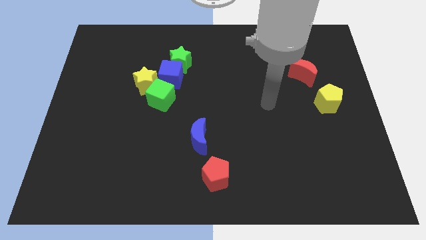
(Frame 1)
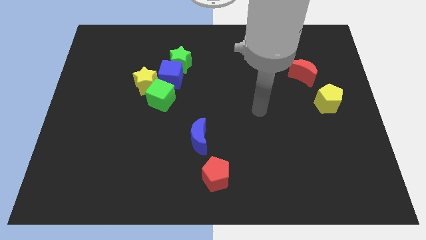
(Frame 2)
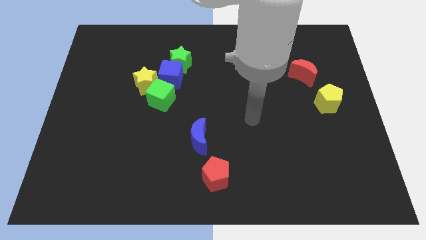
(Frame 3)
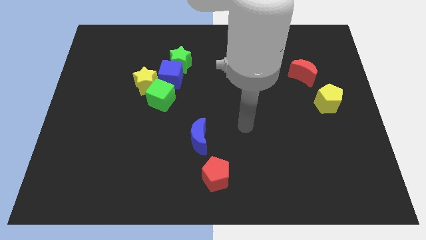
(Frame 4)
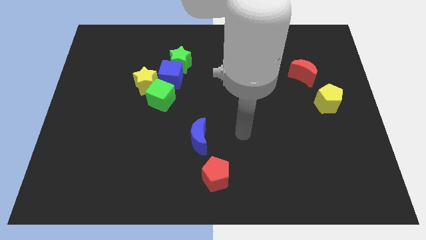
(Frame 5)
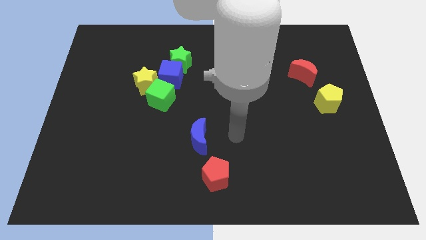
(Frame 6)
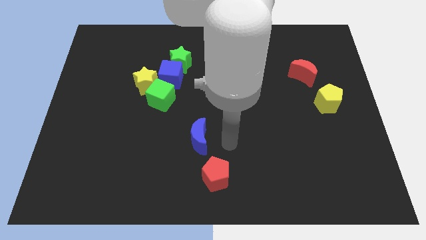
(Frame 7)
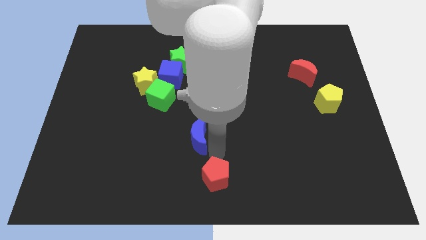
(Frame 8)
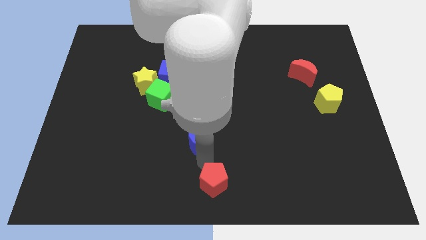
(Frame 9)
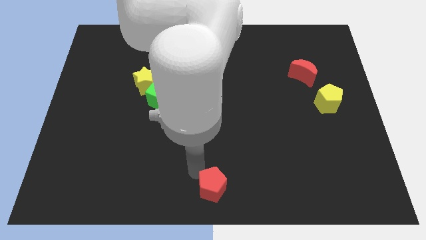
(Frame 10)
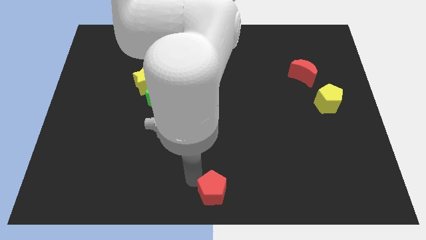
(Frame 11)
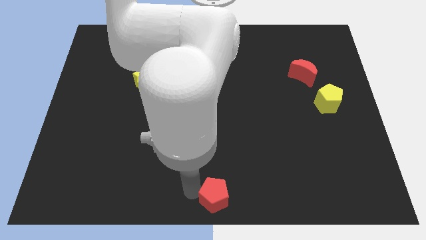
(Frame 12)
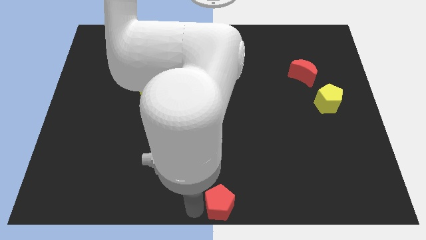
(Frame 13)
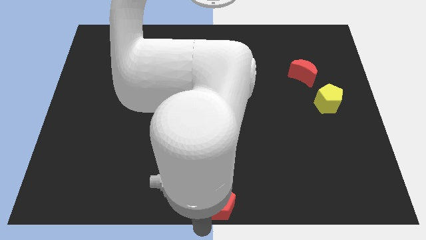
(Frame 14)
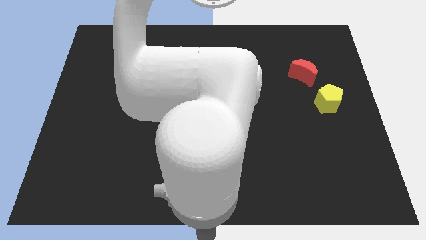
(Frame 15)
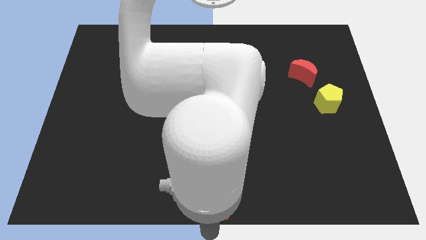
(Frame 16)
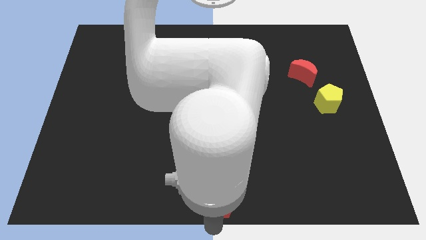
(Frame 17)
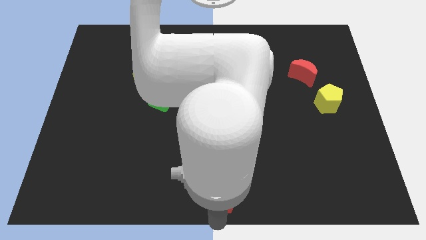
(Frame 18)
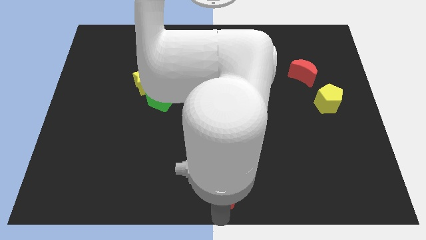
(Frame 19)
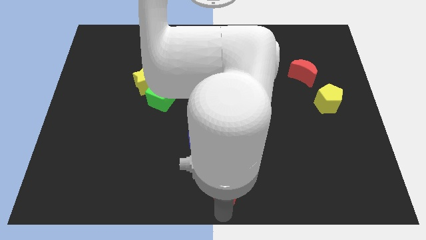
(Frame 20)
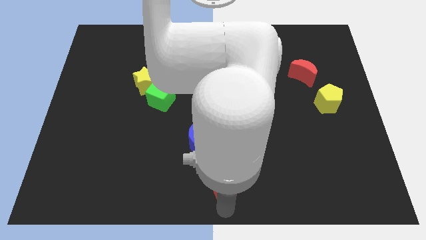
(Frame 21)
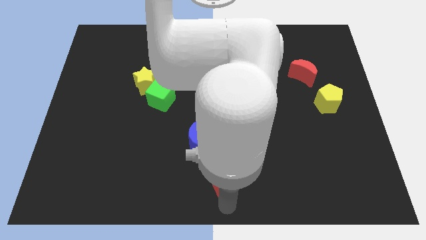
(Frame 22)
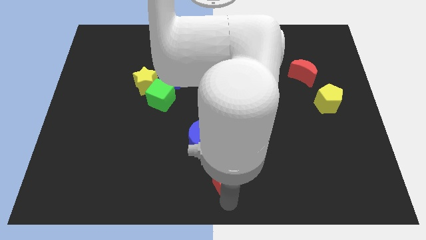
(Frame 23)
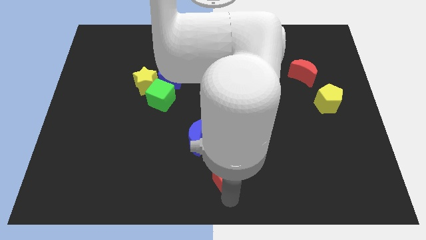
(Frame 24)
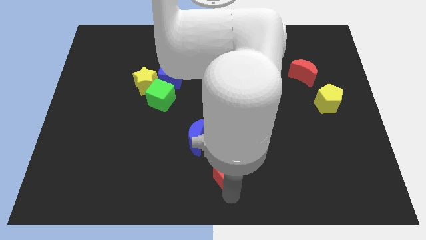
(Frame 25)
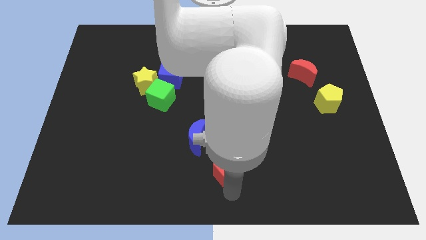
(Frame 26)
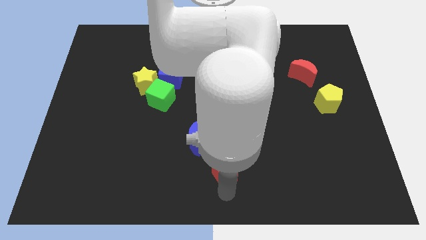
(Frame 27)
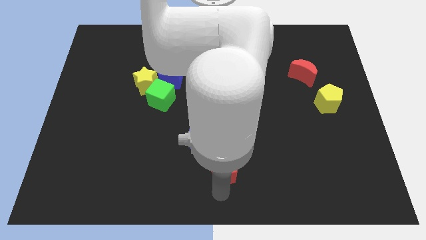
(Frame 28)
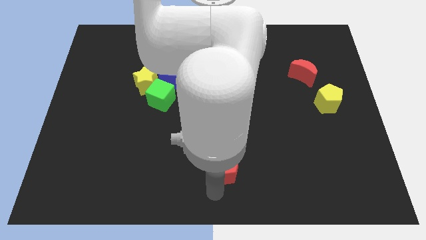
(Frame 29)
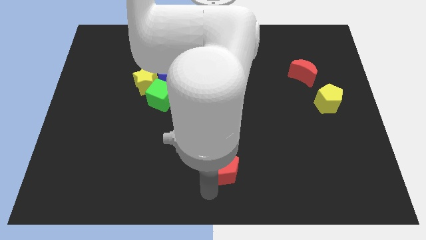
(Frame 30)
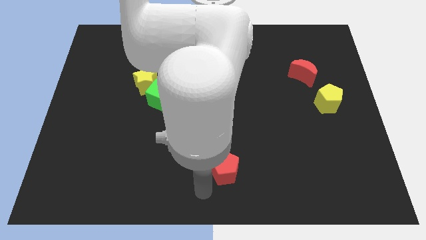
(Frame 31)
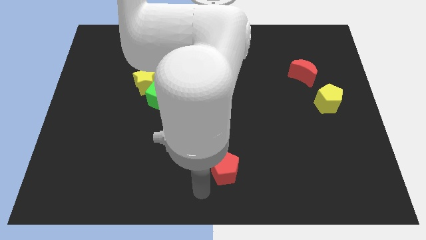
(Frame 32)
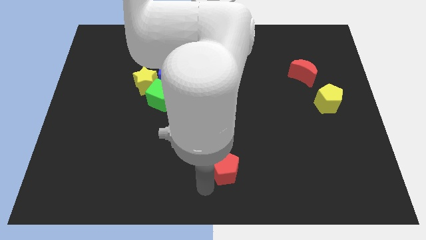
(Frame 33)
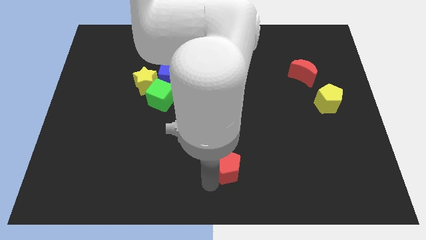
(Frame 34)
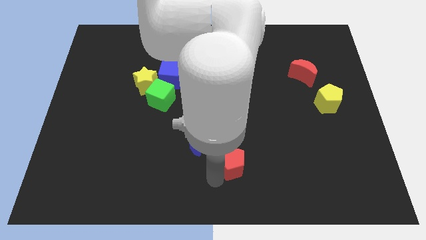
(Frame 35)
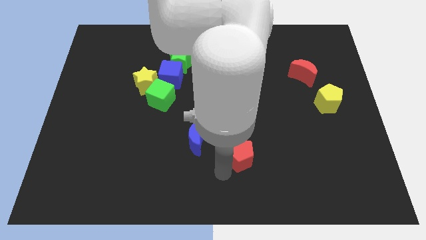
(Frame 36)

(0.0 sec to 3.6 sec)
slightly push the red pentagon up and to the right diagonally

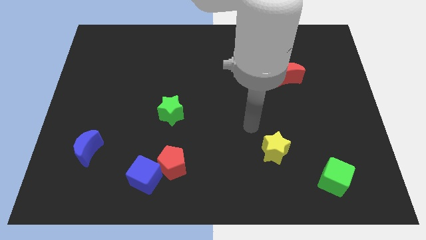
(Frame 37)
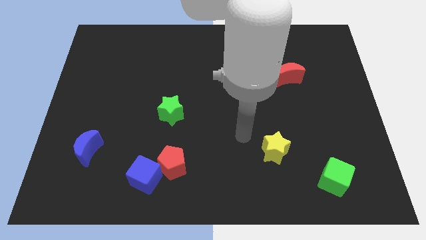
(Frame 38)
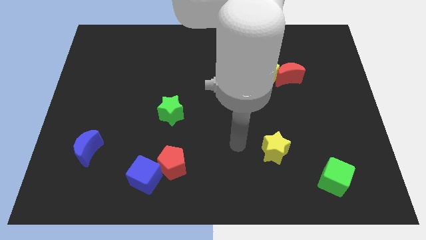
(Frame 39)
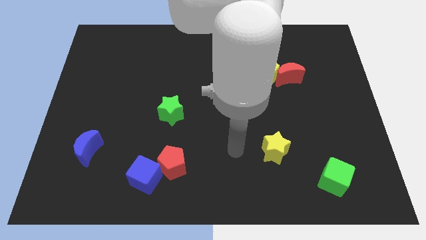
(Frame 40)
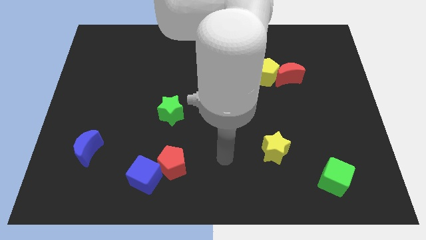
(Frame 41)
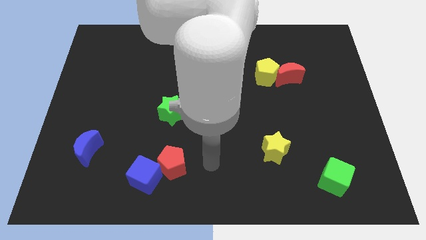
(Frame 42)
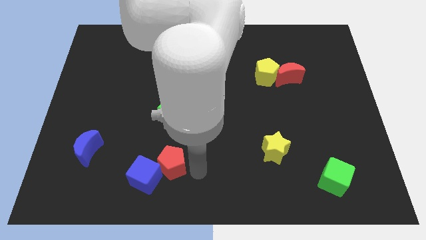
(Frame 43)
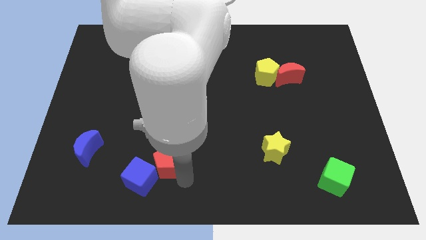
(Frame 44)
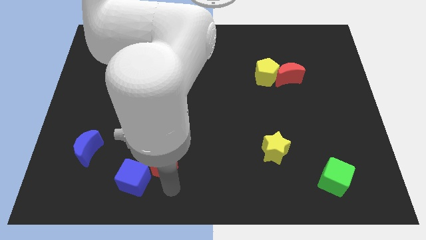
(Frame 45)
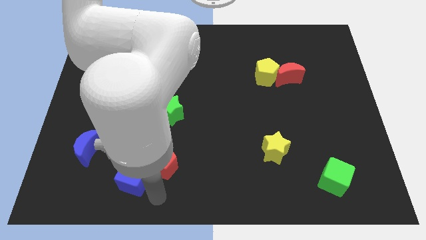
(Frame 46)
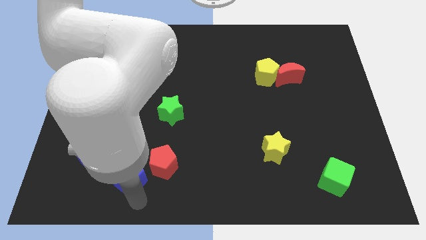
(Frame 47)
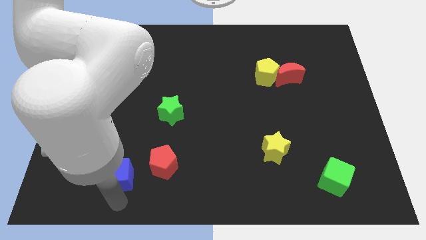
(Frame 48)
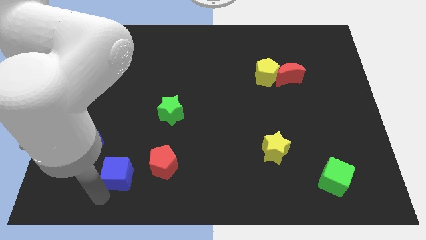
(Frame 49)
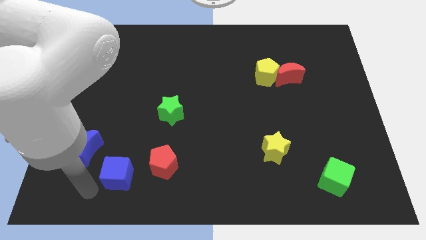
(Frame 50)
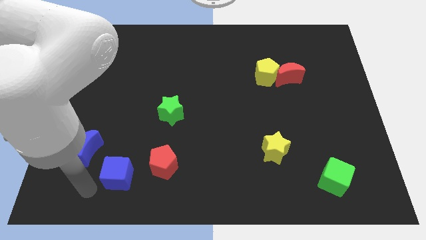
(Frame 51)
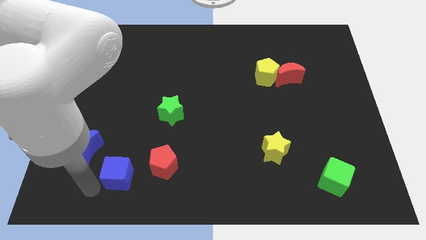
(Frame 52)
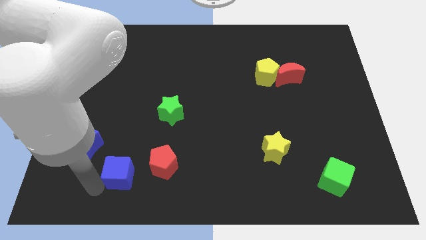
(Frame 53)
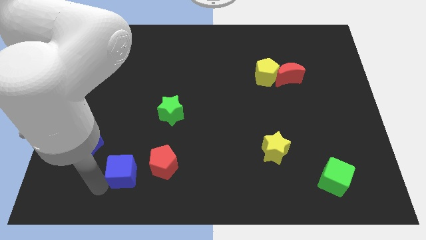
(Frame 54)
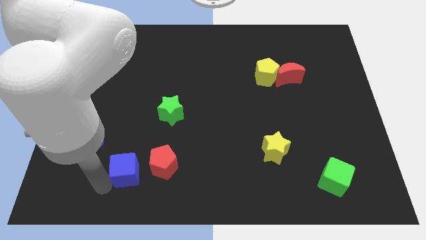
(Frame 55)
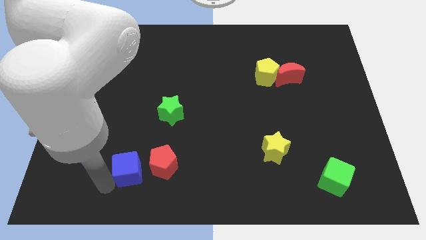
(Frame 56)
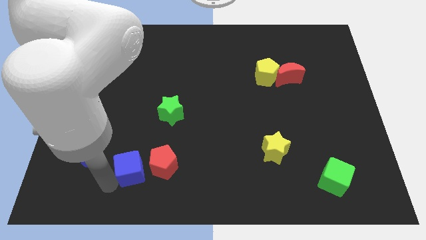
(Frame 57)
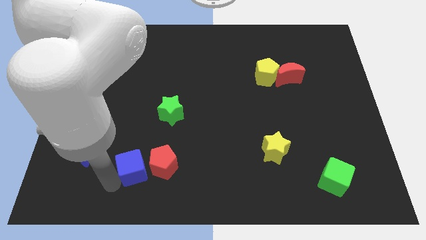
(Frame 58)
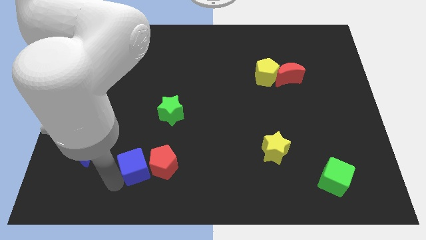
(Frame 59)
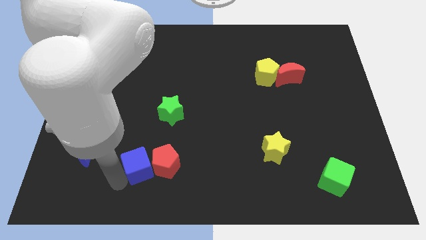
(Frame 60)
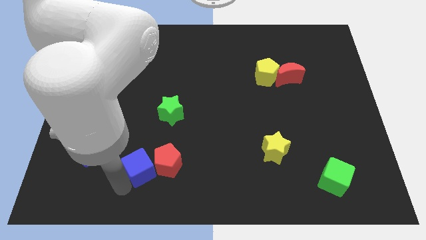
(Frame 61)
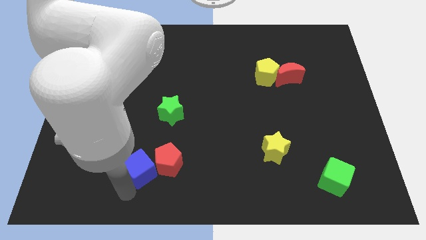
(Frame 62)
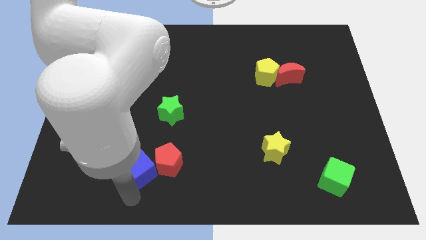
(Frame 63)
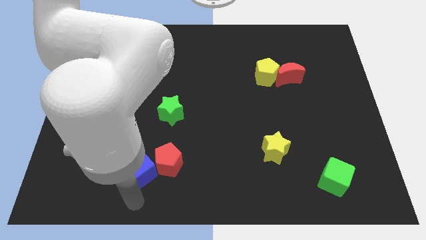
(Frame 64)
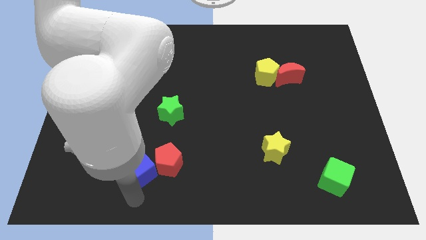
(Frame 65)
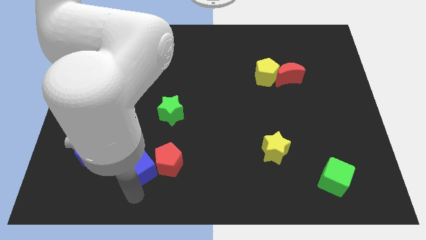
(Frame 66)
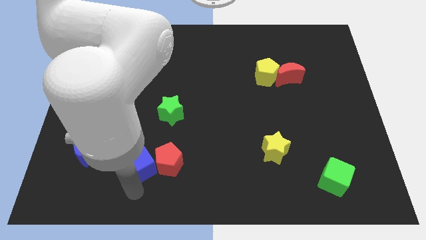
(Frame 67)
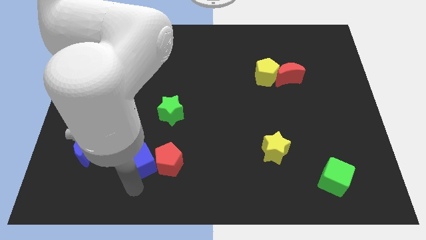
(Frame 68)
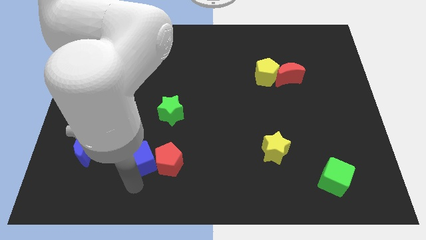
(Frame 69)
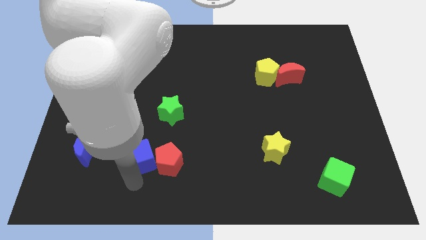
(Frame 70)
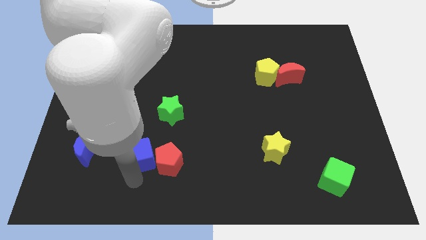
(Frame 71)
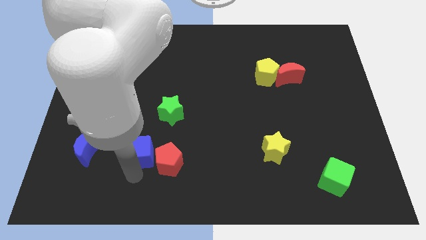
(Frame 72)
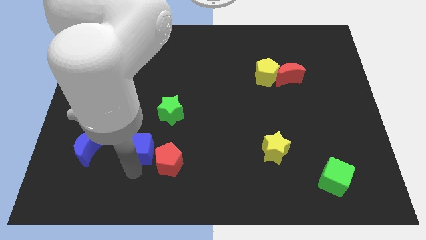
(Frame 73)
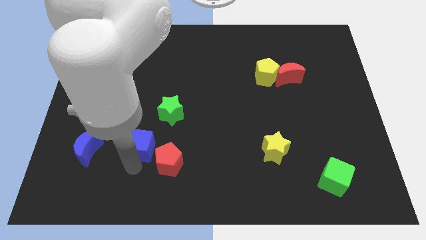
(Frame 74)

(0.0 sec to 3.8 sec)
move the blue cube upwards slightly

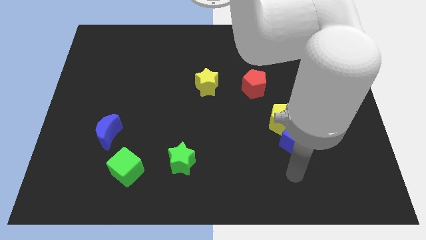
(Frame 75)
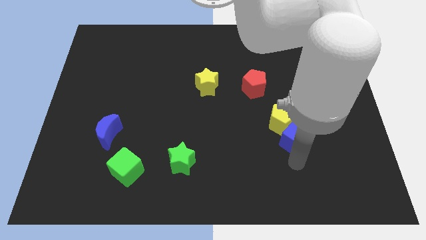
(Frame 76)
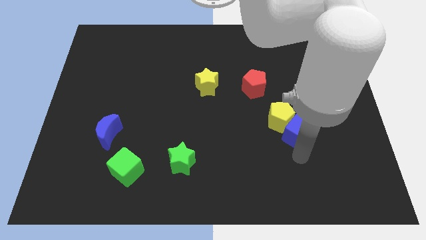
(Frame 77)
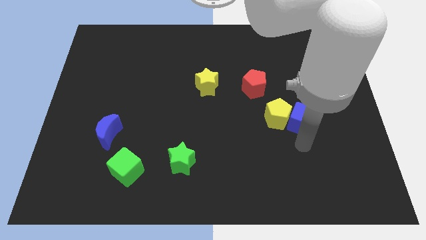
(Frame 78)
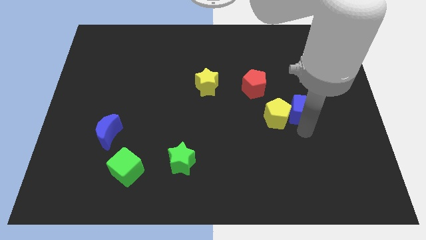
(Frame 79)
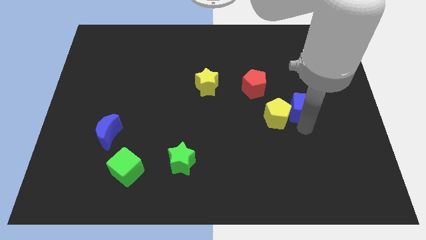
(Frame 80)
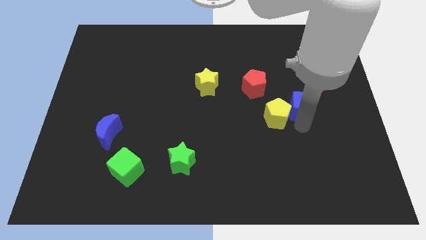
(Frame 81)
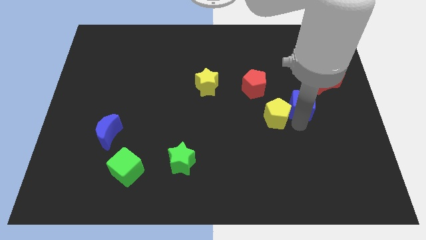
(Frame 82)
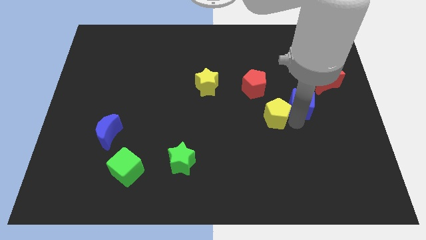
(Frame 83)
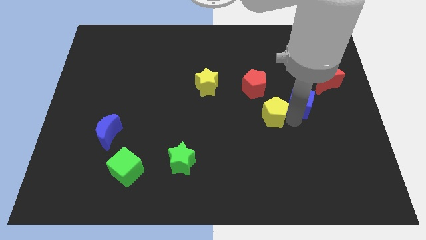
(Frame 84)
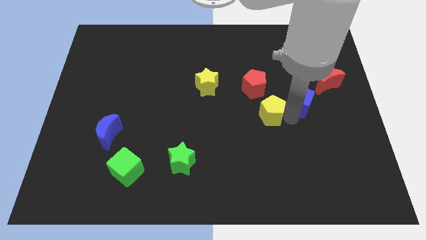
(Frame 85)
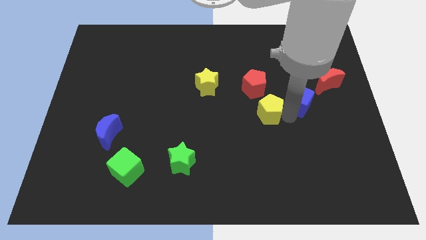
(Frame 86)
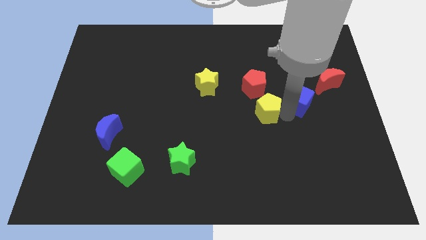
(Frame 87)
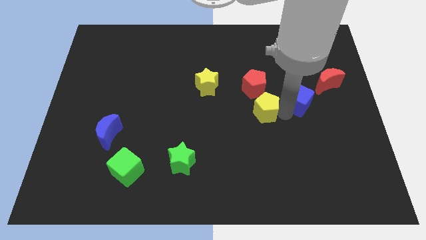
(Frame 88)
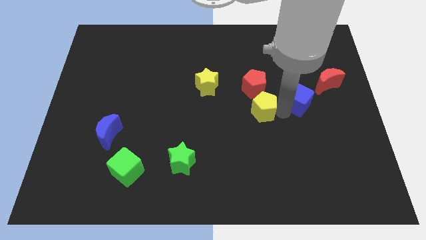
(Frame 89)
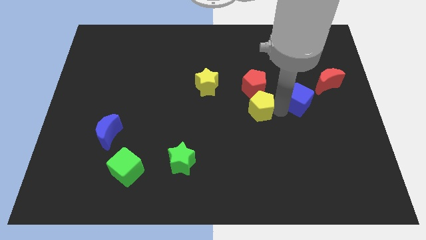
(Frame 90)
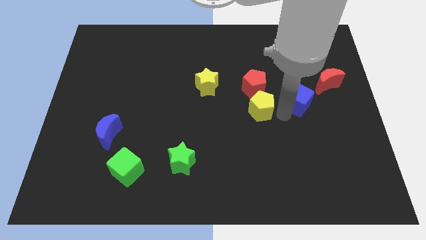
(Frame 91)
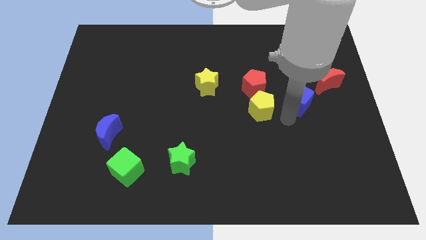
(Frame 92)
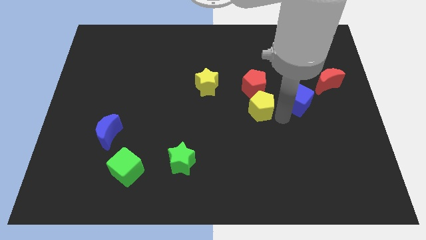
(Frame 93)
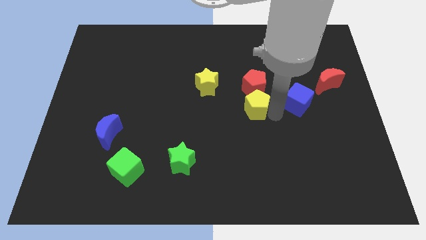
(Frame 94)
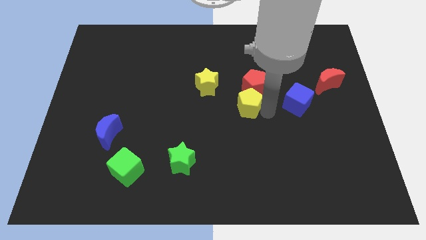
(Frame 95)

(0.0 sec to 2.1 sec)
push the yellow pentagon a little bit up and to the left
